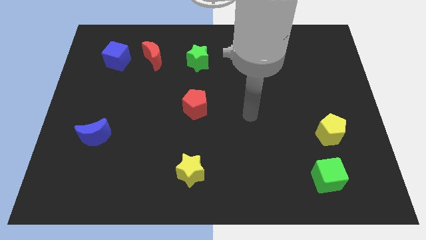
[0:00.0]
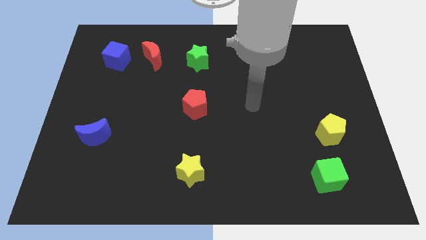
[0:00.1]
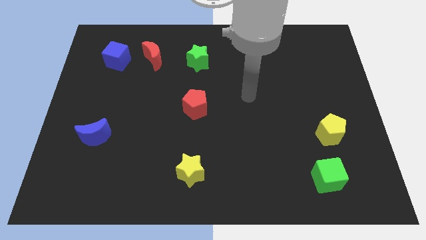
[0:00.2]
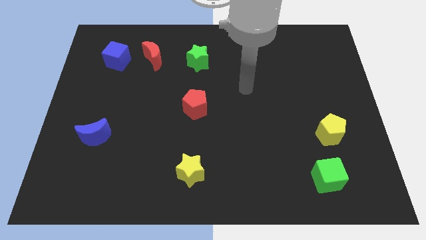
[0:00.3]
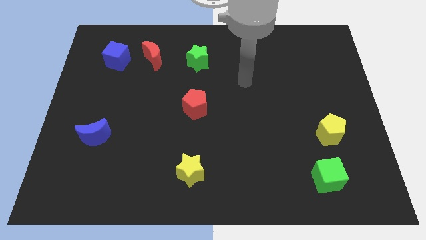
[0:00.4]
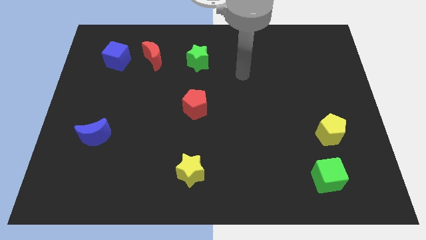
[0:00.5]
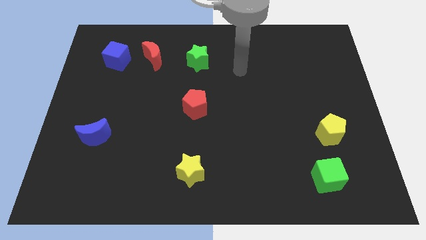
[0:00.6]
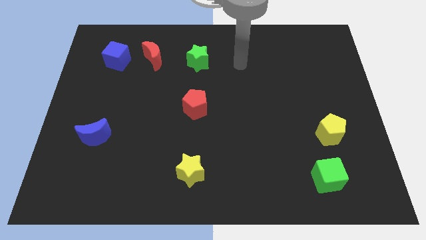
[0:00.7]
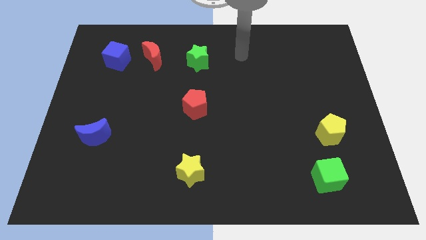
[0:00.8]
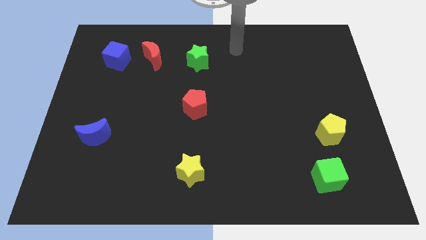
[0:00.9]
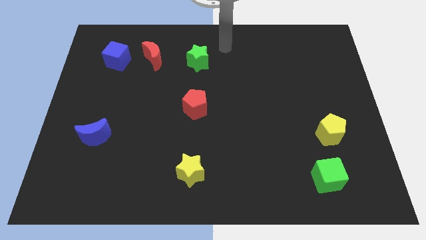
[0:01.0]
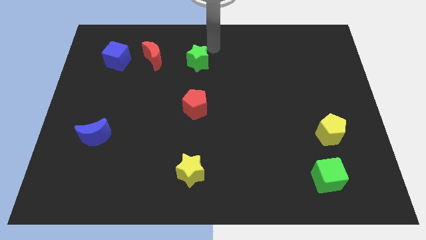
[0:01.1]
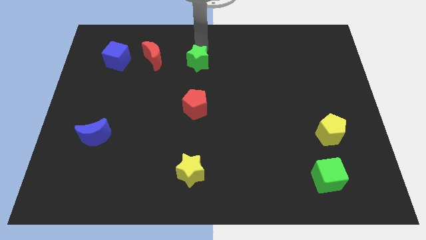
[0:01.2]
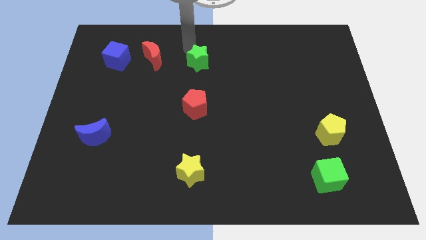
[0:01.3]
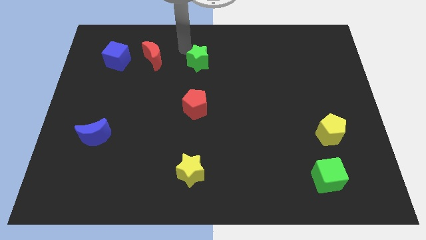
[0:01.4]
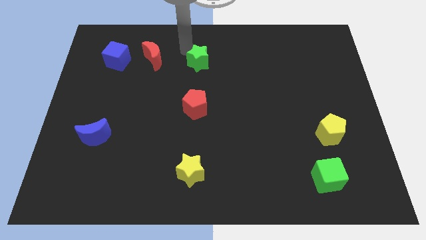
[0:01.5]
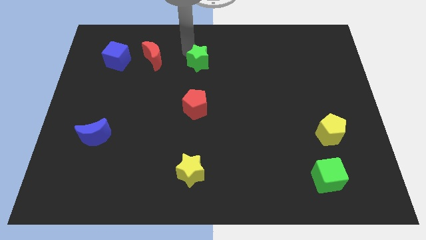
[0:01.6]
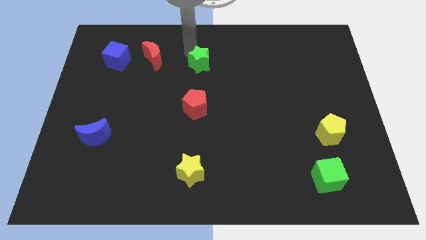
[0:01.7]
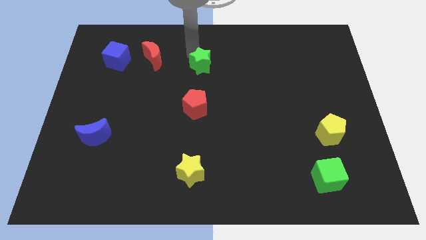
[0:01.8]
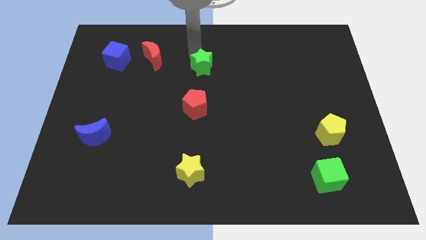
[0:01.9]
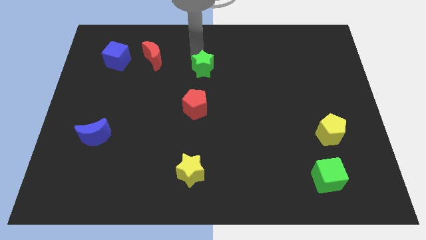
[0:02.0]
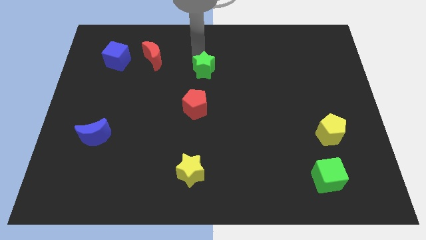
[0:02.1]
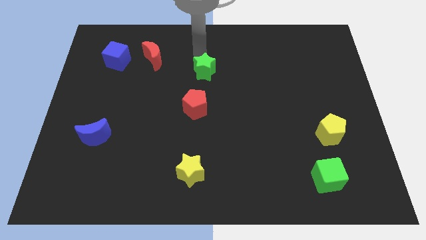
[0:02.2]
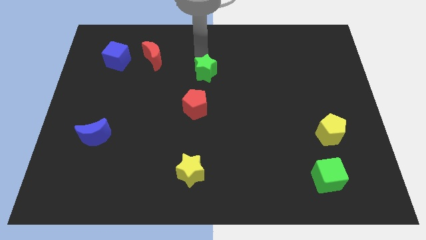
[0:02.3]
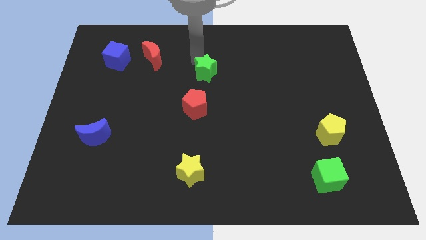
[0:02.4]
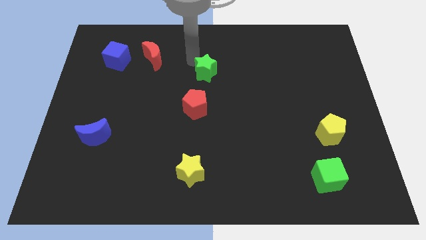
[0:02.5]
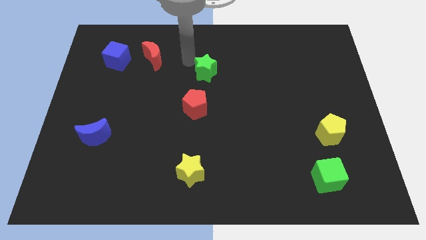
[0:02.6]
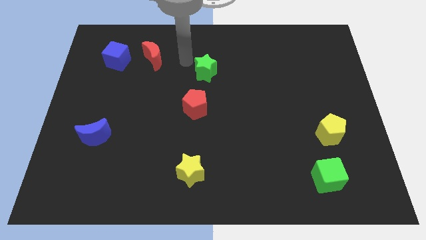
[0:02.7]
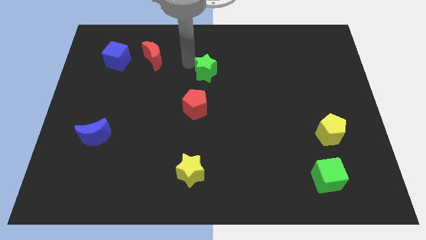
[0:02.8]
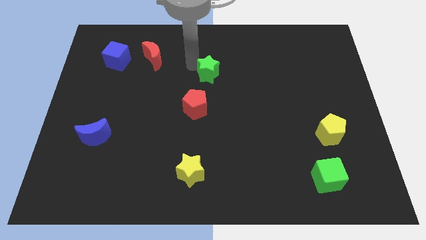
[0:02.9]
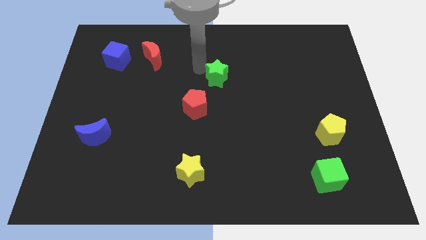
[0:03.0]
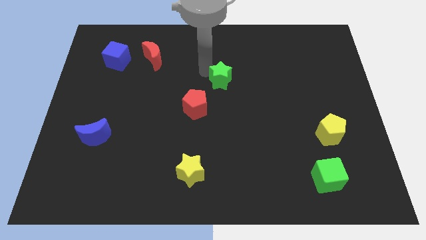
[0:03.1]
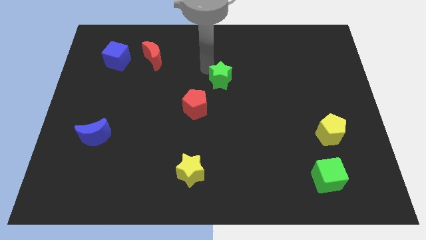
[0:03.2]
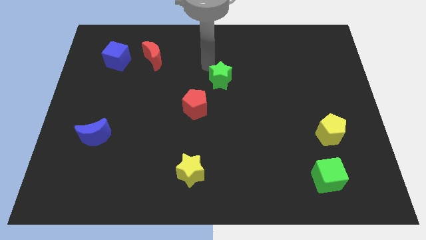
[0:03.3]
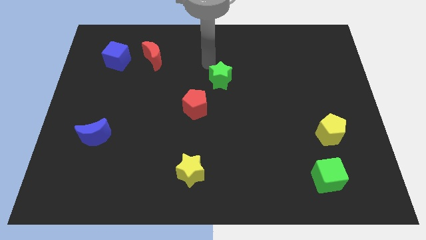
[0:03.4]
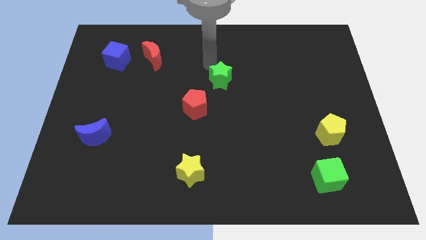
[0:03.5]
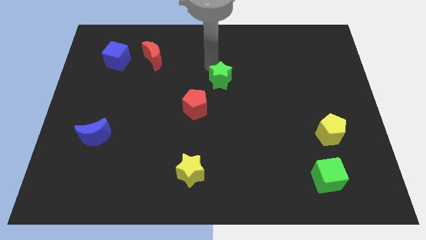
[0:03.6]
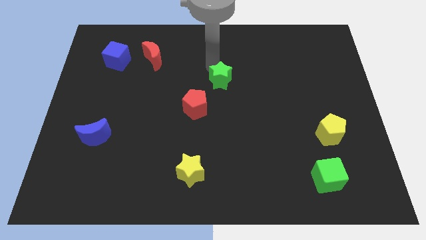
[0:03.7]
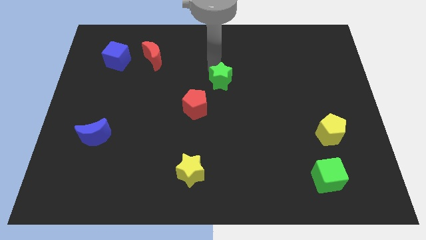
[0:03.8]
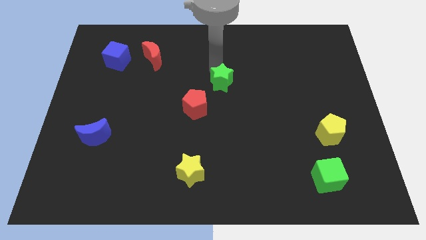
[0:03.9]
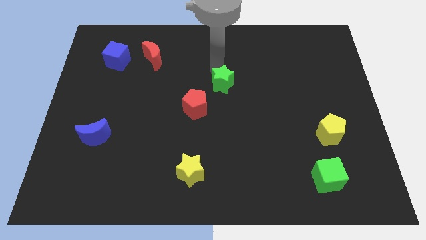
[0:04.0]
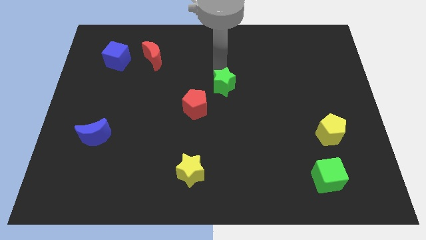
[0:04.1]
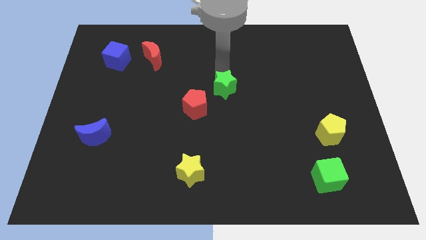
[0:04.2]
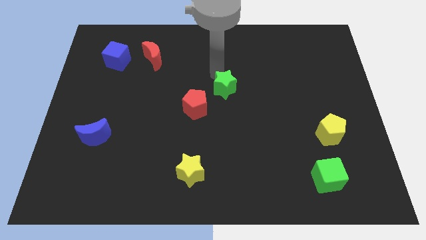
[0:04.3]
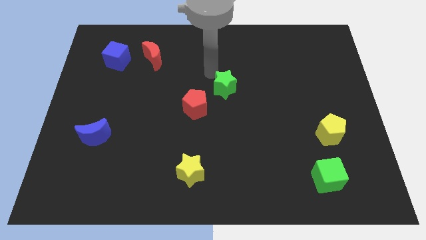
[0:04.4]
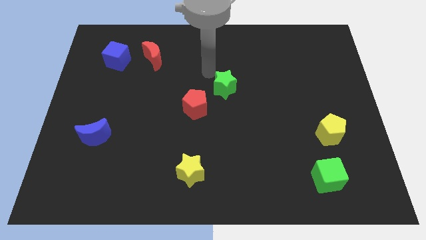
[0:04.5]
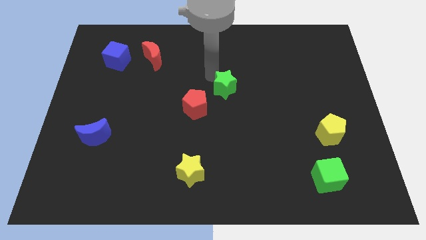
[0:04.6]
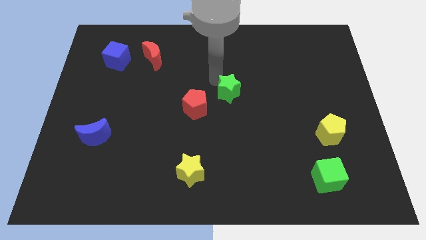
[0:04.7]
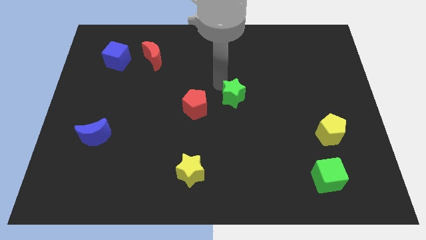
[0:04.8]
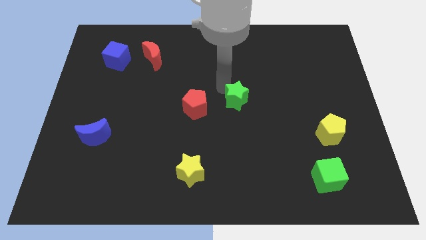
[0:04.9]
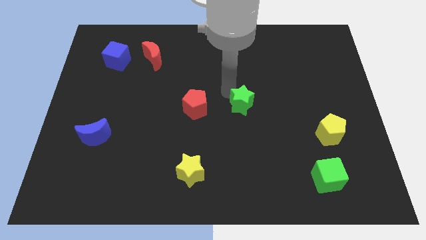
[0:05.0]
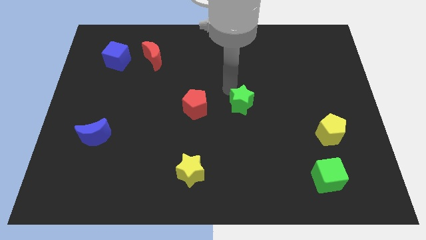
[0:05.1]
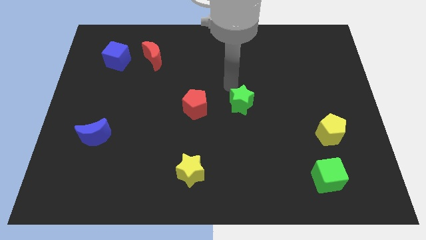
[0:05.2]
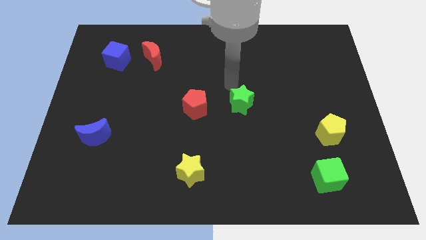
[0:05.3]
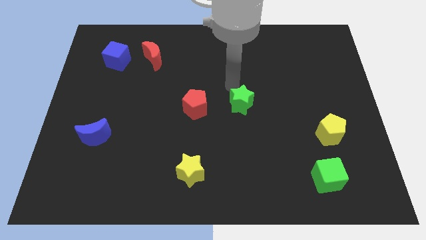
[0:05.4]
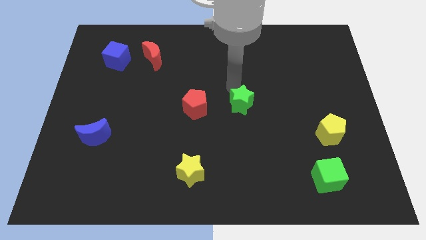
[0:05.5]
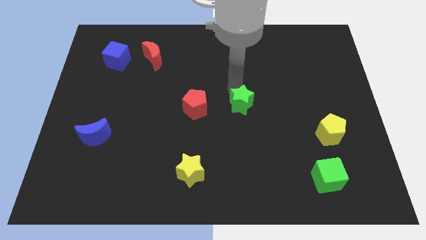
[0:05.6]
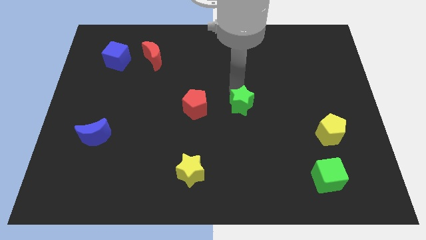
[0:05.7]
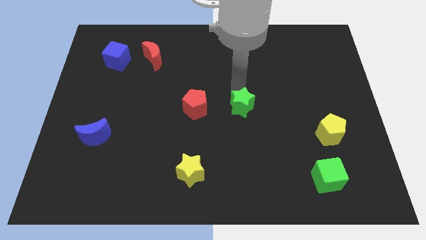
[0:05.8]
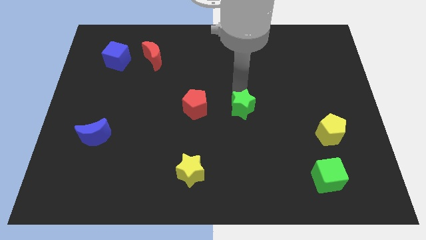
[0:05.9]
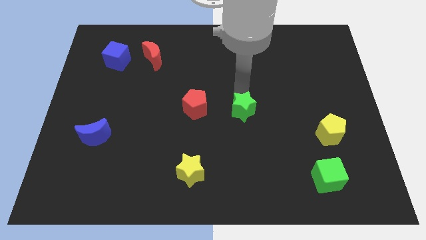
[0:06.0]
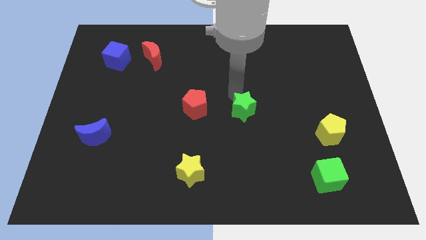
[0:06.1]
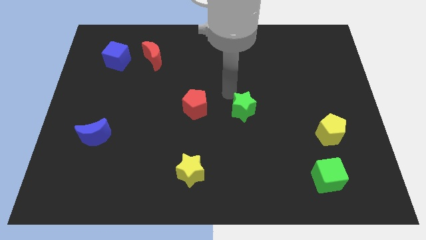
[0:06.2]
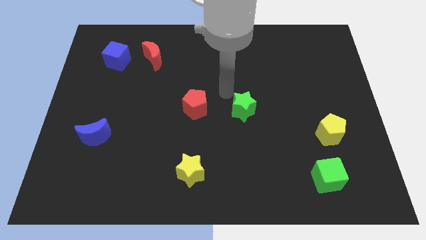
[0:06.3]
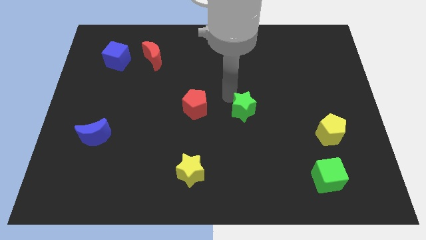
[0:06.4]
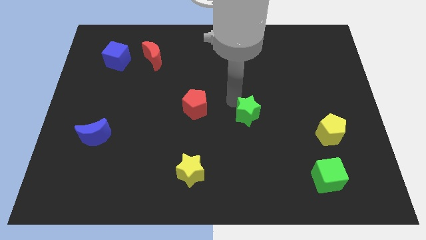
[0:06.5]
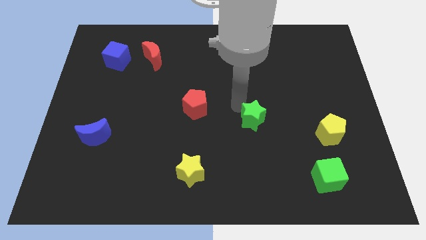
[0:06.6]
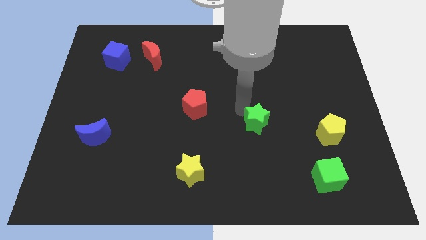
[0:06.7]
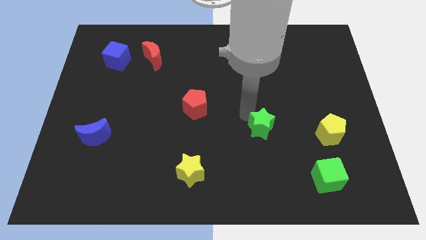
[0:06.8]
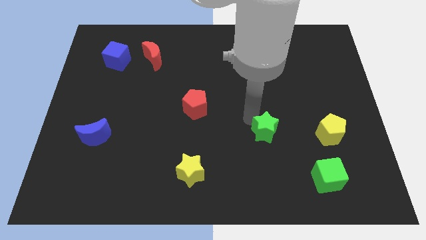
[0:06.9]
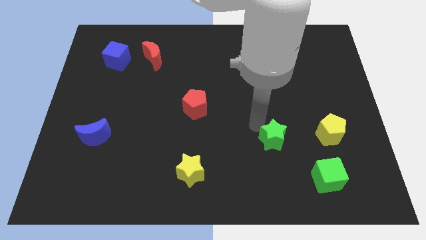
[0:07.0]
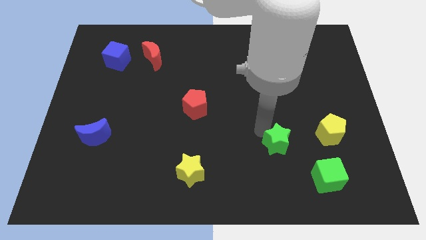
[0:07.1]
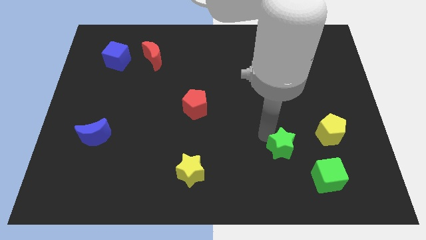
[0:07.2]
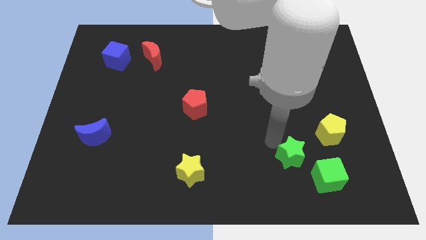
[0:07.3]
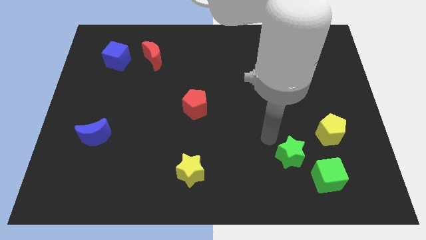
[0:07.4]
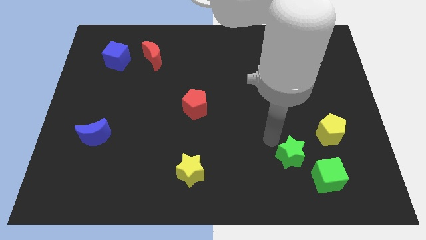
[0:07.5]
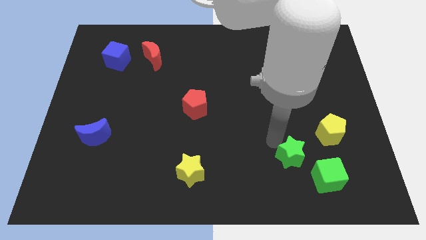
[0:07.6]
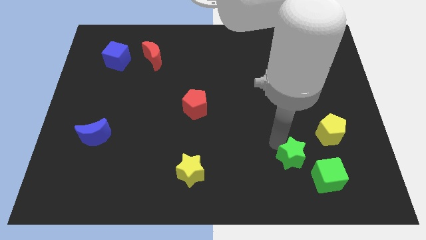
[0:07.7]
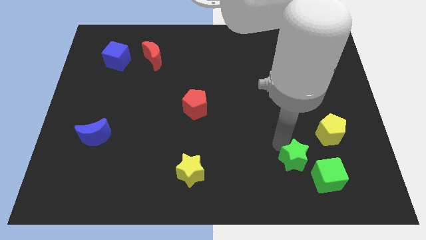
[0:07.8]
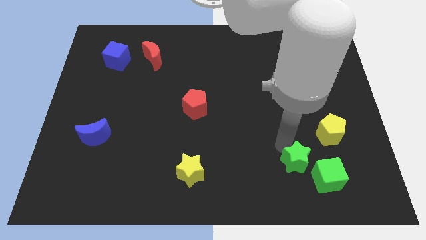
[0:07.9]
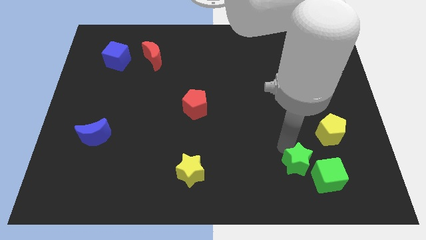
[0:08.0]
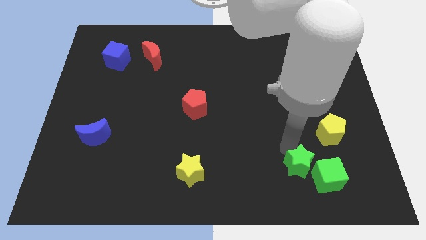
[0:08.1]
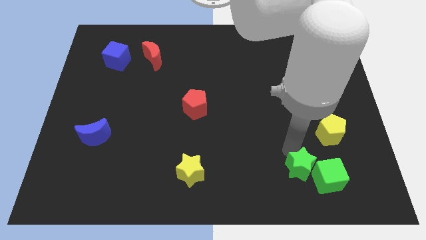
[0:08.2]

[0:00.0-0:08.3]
put the green star to the green cube
